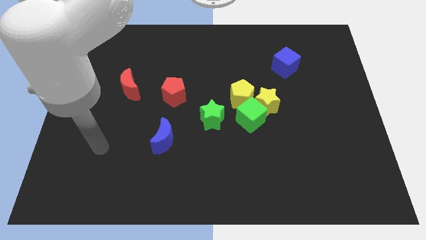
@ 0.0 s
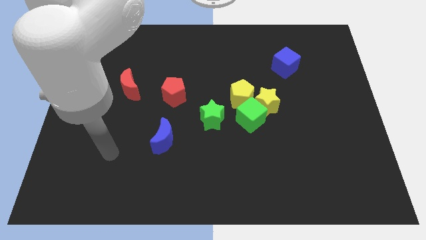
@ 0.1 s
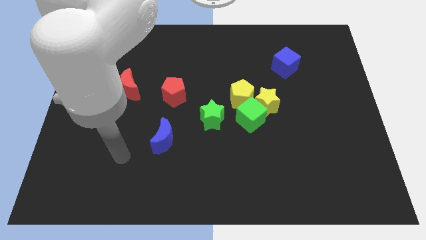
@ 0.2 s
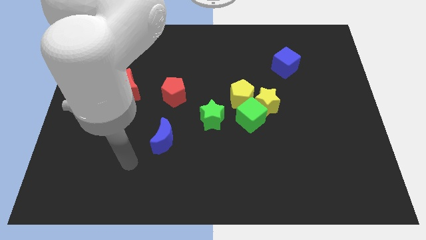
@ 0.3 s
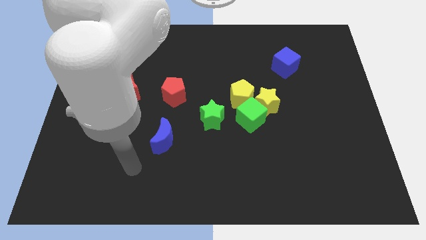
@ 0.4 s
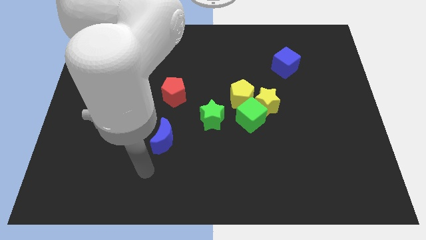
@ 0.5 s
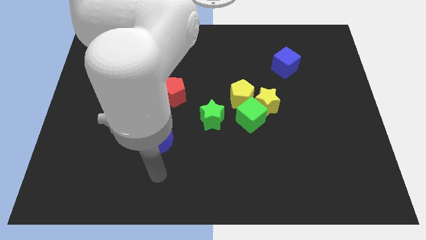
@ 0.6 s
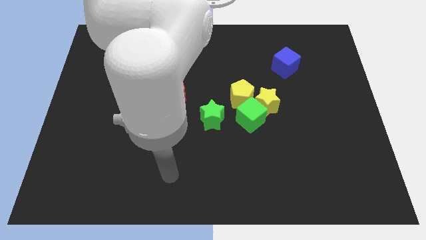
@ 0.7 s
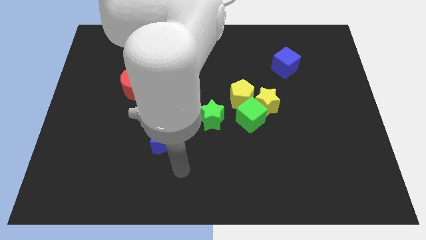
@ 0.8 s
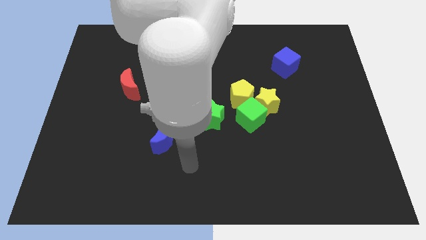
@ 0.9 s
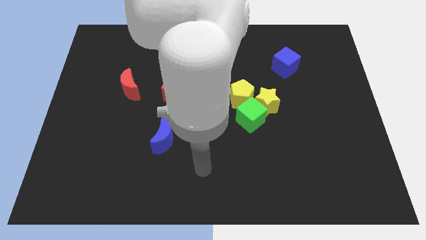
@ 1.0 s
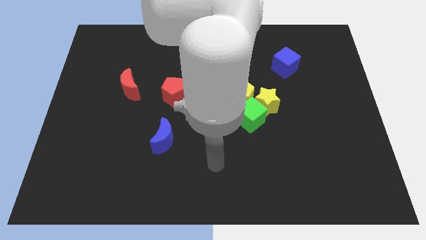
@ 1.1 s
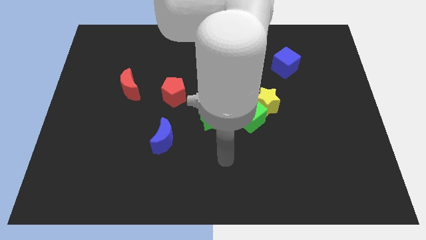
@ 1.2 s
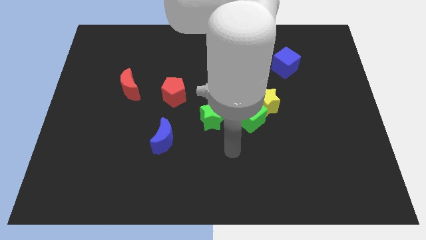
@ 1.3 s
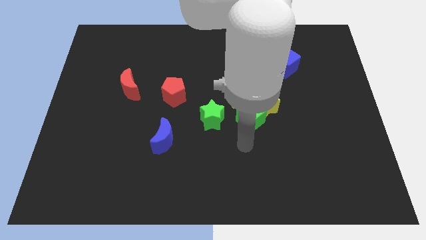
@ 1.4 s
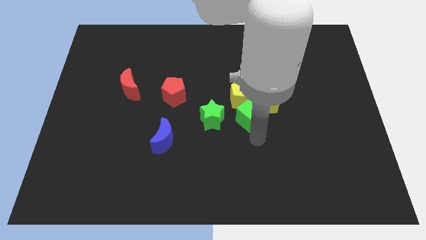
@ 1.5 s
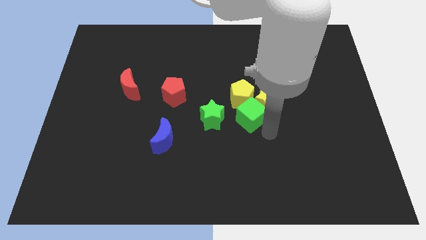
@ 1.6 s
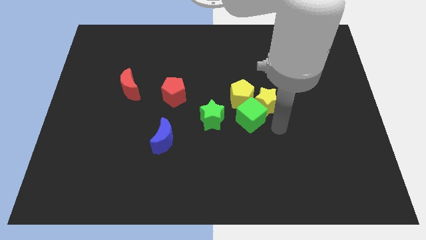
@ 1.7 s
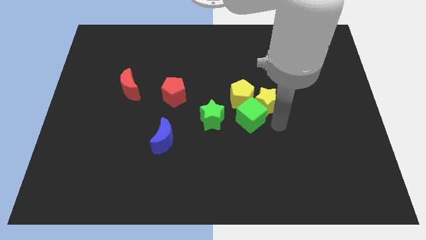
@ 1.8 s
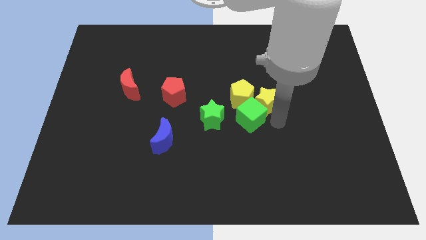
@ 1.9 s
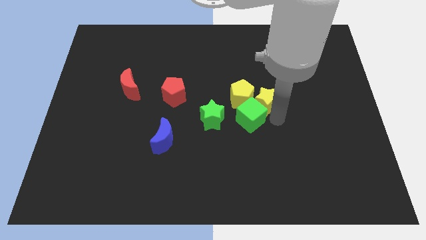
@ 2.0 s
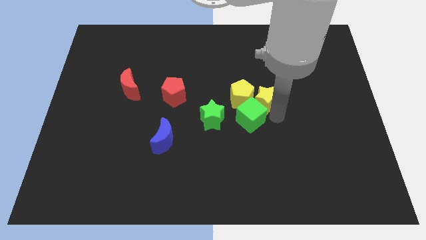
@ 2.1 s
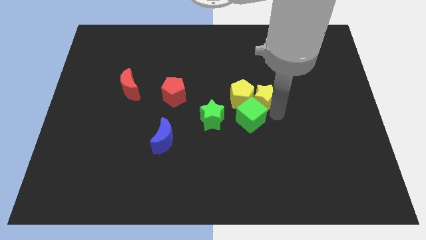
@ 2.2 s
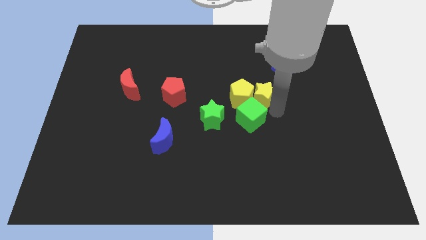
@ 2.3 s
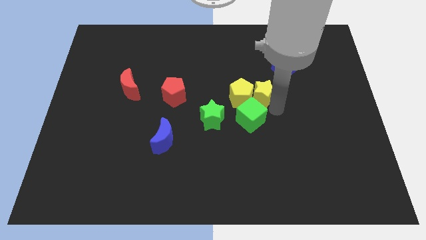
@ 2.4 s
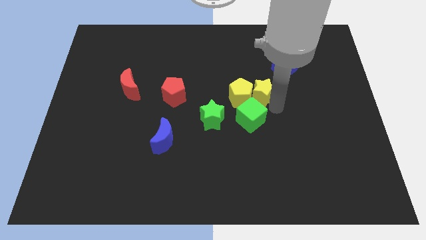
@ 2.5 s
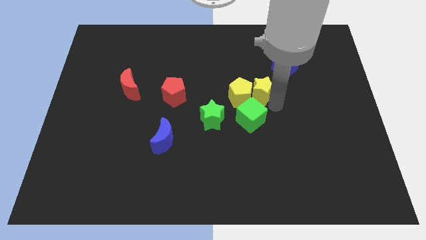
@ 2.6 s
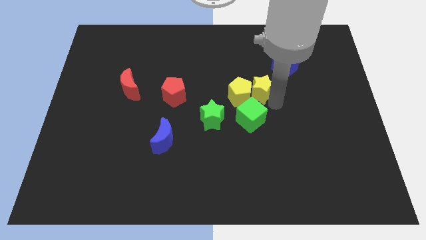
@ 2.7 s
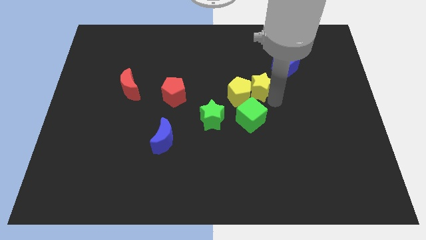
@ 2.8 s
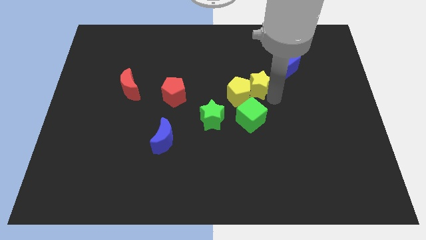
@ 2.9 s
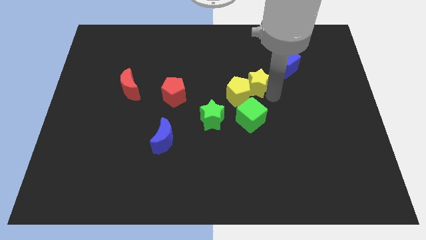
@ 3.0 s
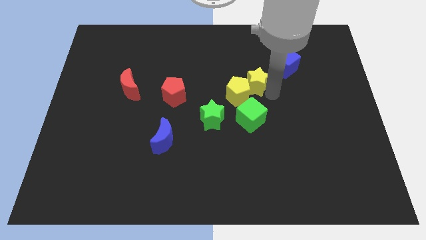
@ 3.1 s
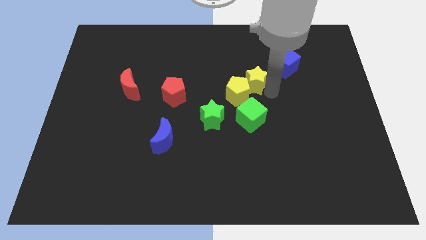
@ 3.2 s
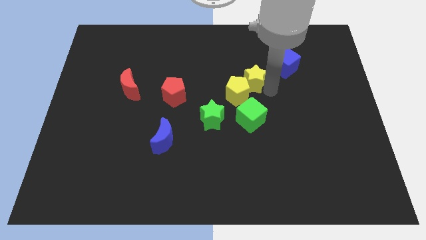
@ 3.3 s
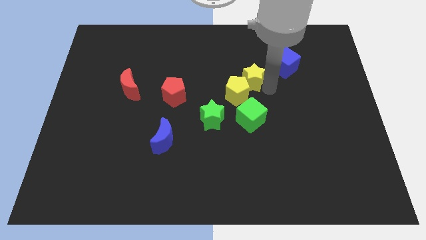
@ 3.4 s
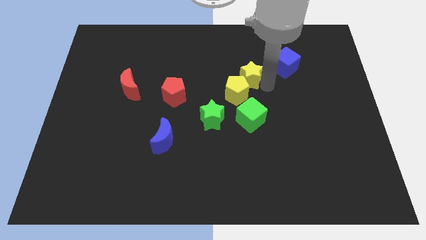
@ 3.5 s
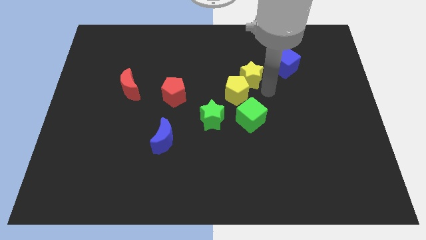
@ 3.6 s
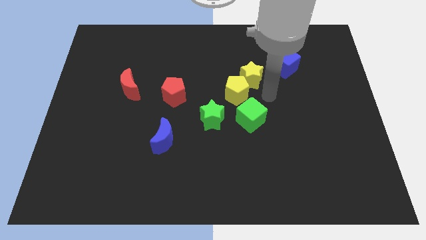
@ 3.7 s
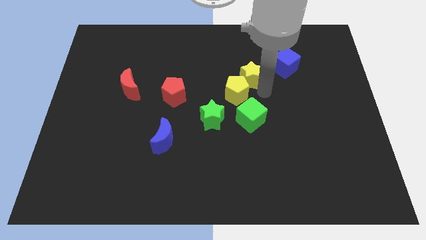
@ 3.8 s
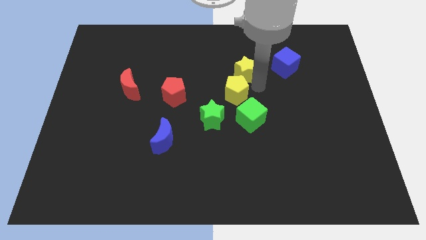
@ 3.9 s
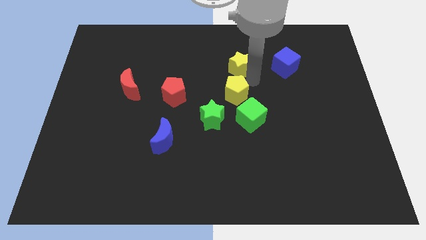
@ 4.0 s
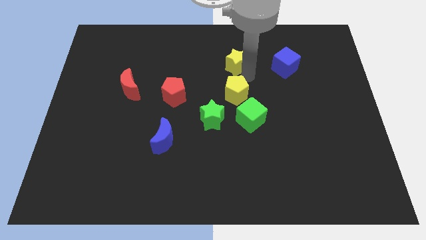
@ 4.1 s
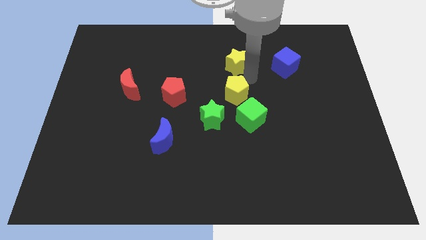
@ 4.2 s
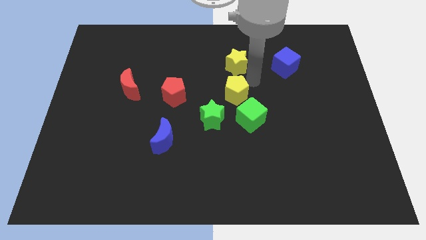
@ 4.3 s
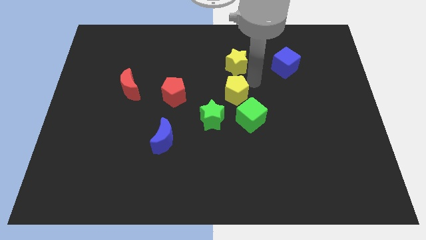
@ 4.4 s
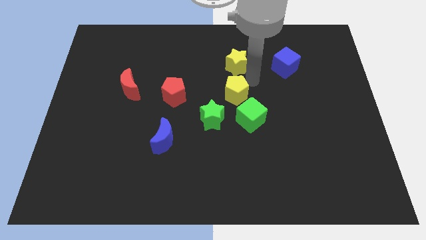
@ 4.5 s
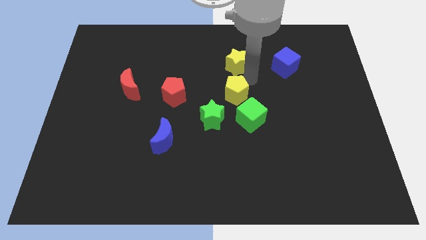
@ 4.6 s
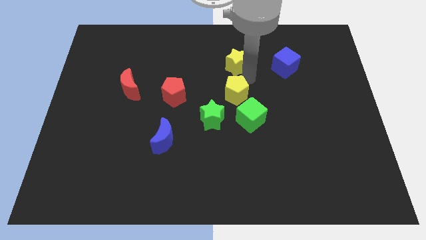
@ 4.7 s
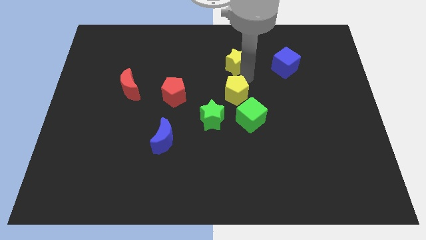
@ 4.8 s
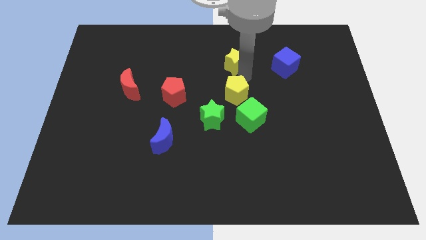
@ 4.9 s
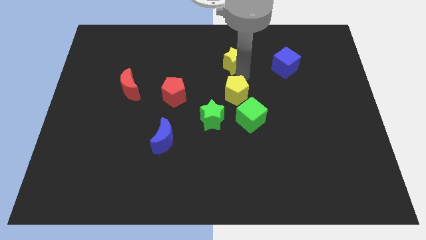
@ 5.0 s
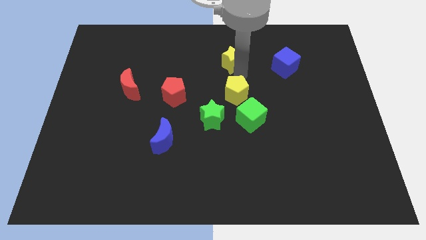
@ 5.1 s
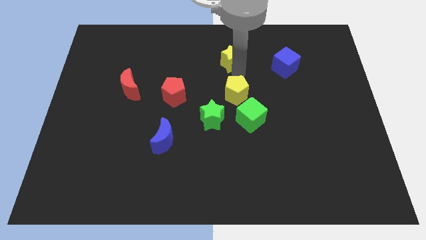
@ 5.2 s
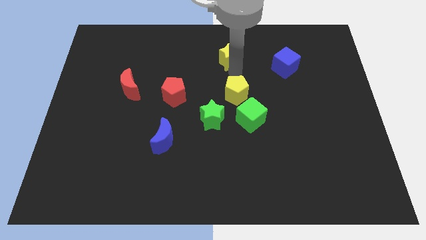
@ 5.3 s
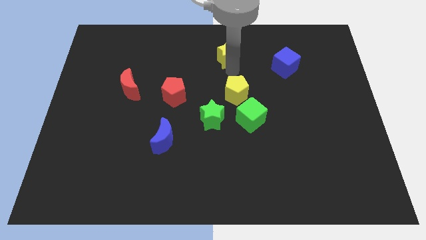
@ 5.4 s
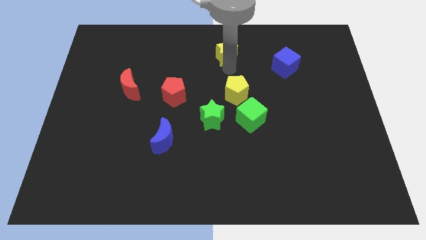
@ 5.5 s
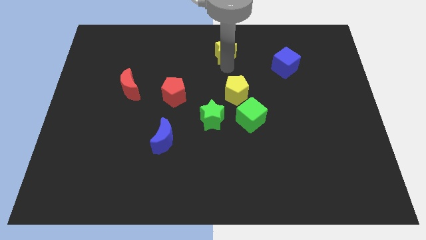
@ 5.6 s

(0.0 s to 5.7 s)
move the yellow star to the towards your base

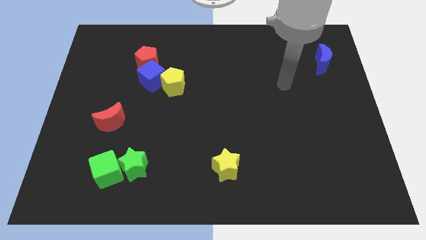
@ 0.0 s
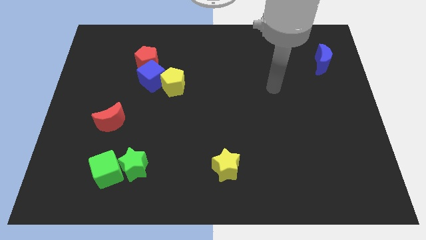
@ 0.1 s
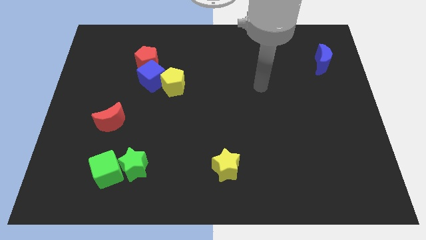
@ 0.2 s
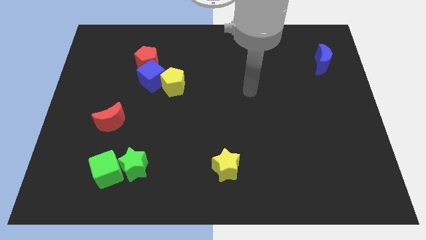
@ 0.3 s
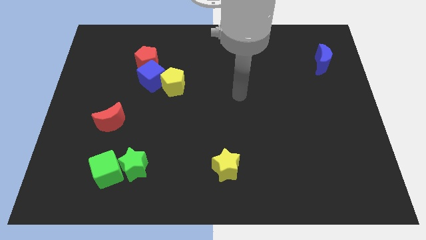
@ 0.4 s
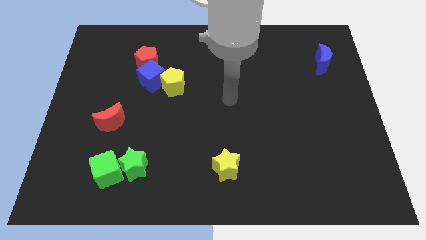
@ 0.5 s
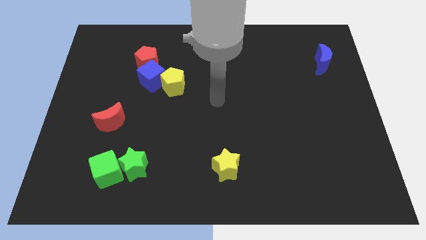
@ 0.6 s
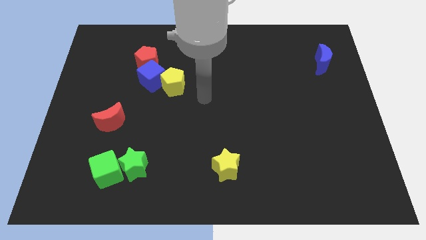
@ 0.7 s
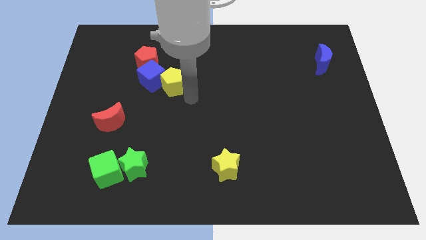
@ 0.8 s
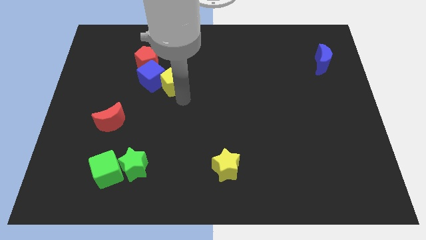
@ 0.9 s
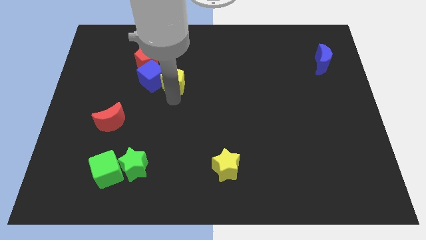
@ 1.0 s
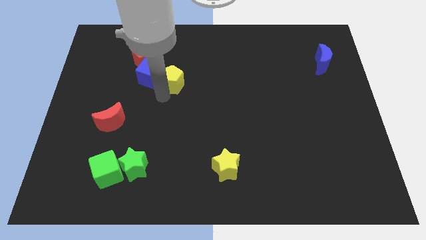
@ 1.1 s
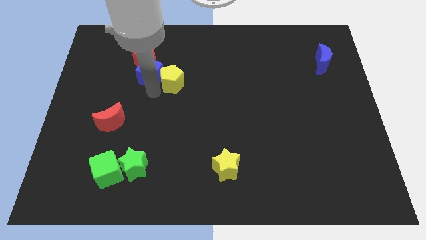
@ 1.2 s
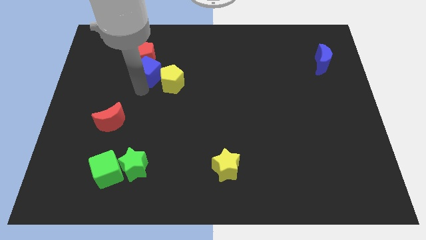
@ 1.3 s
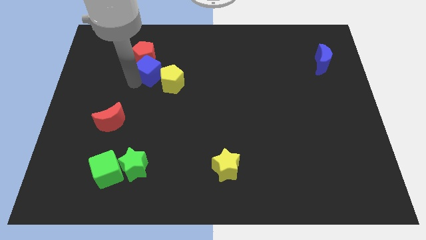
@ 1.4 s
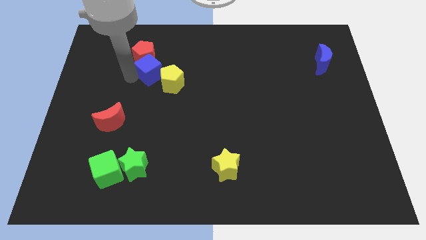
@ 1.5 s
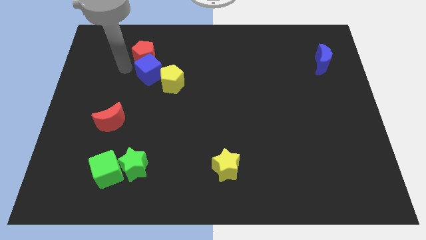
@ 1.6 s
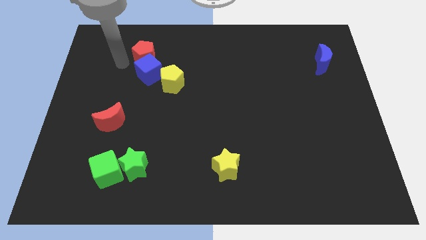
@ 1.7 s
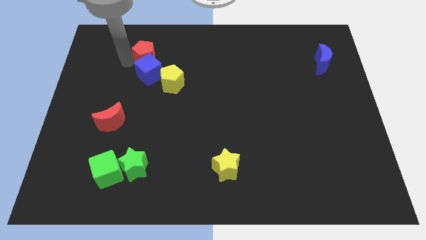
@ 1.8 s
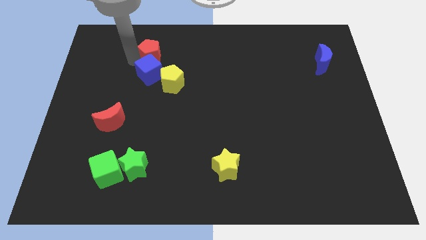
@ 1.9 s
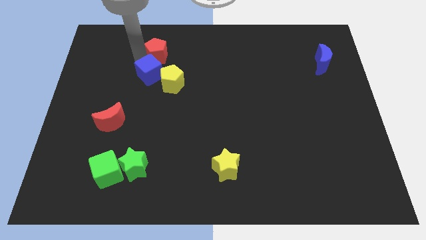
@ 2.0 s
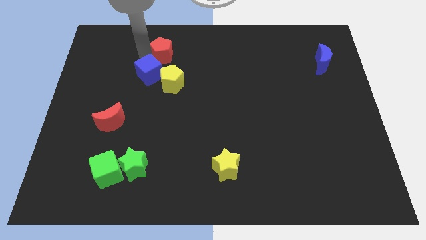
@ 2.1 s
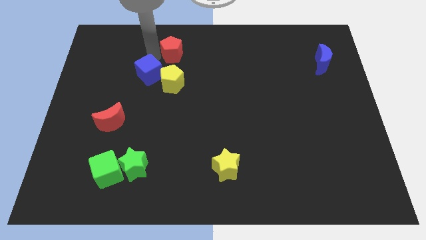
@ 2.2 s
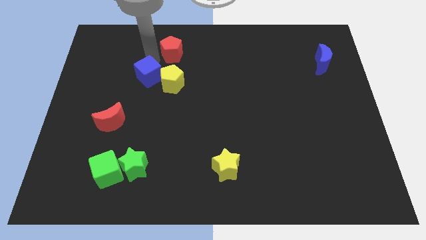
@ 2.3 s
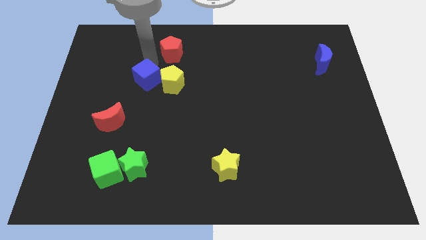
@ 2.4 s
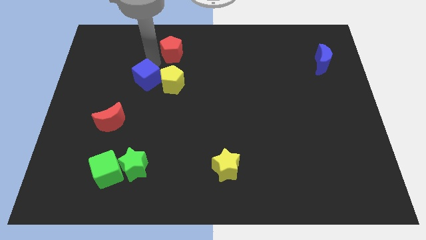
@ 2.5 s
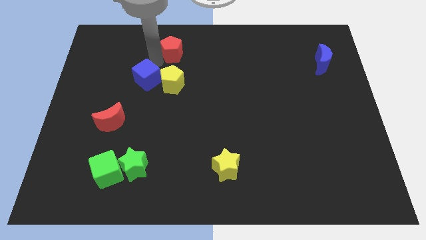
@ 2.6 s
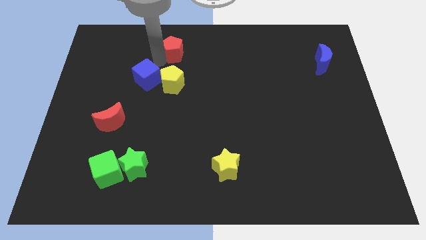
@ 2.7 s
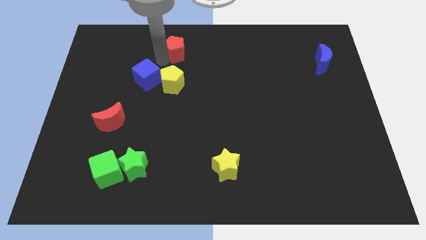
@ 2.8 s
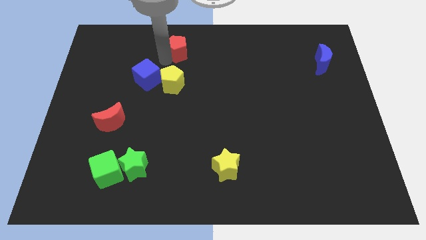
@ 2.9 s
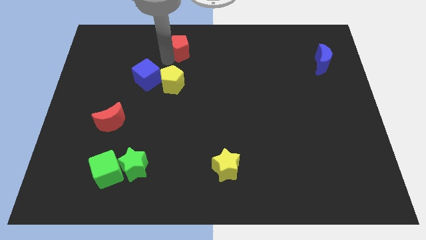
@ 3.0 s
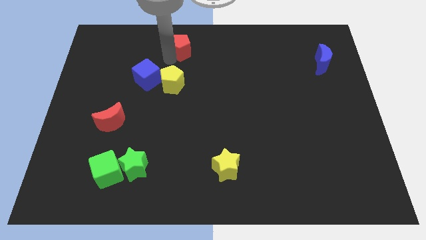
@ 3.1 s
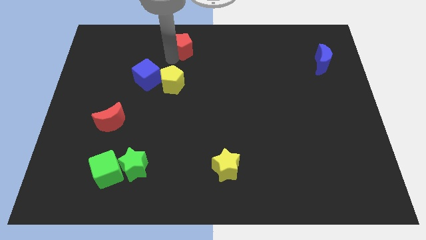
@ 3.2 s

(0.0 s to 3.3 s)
push the red pentagon to the towards your base
